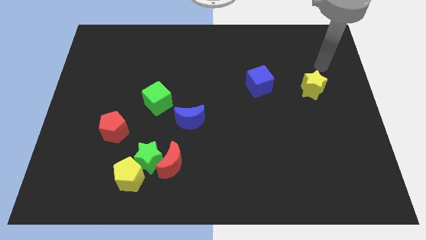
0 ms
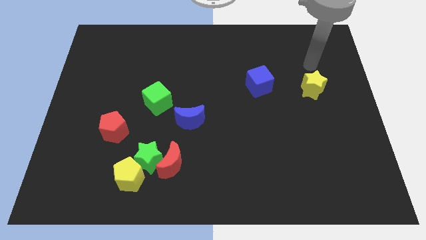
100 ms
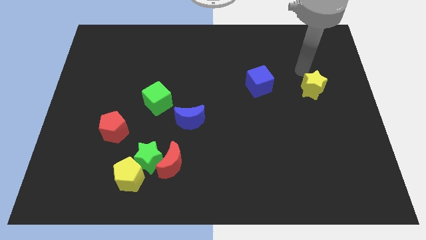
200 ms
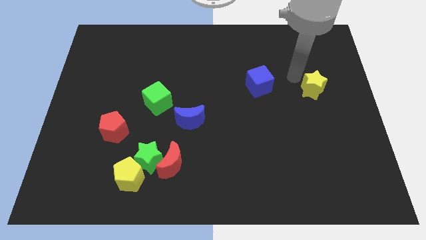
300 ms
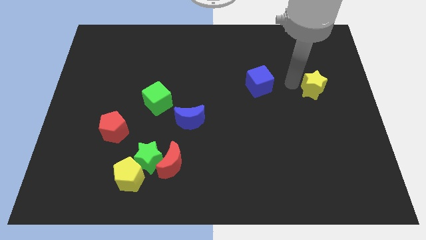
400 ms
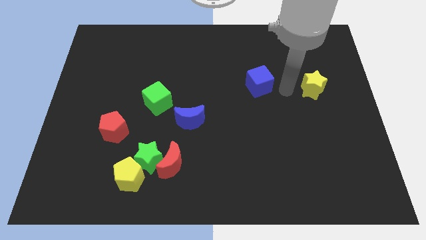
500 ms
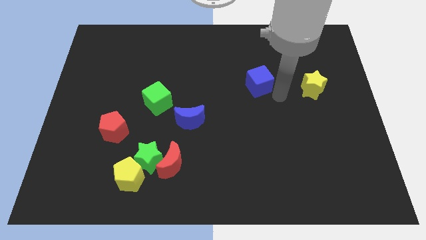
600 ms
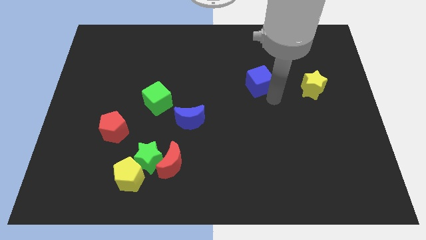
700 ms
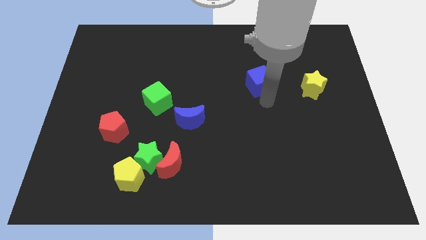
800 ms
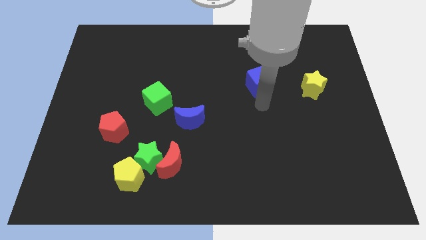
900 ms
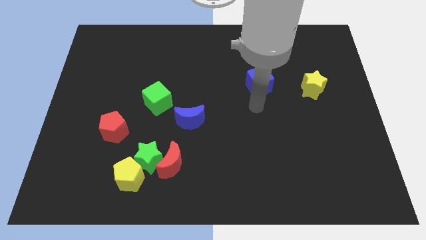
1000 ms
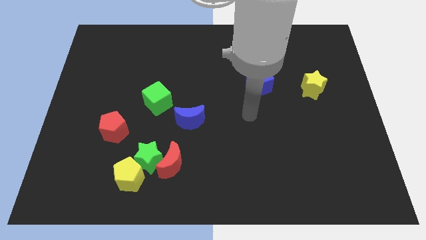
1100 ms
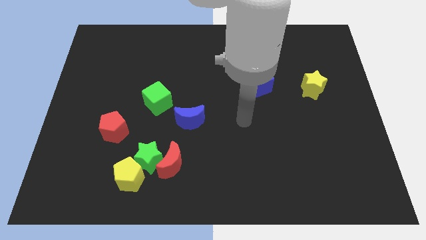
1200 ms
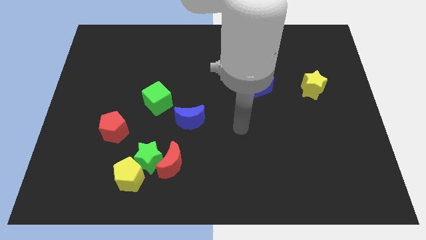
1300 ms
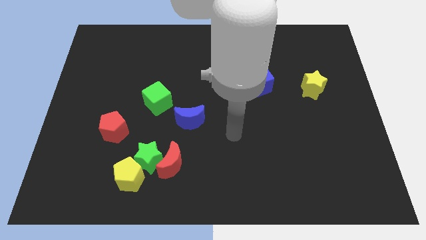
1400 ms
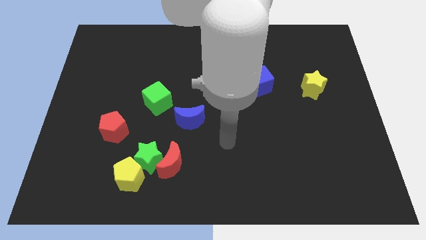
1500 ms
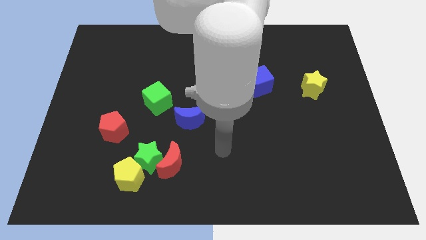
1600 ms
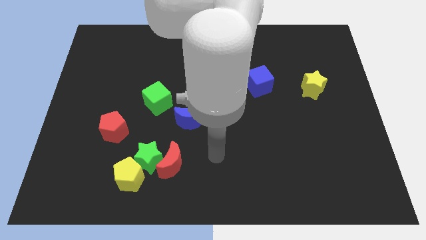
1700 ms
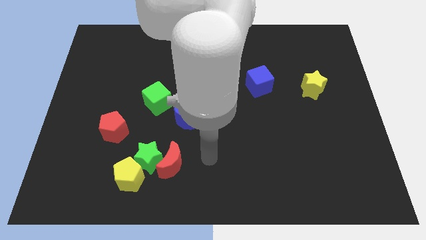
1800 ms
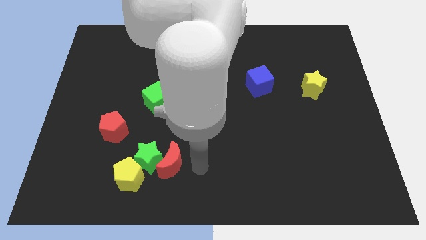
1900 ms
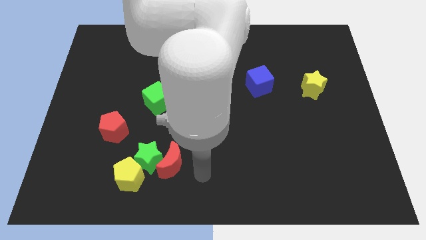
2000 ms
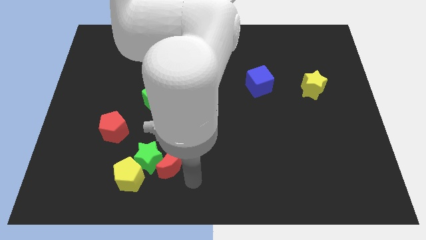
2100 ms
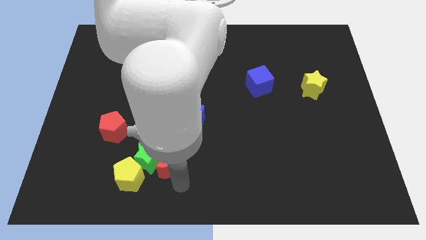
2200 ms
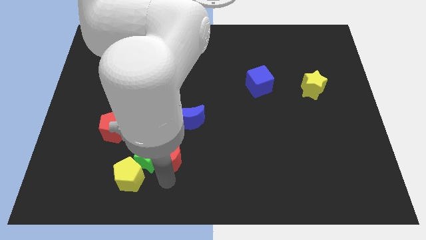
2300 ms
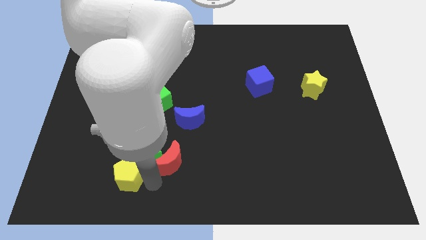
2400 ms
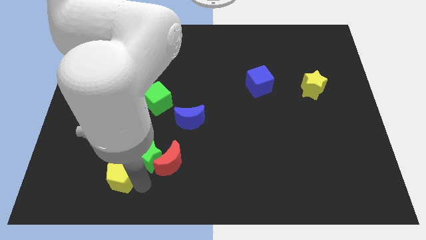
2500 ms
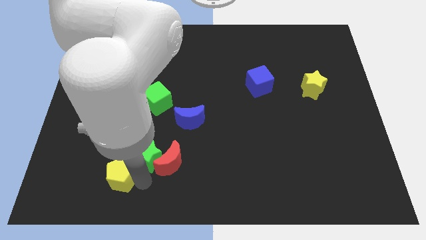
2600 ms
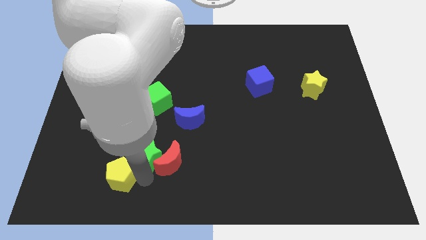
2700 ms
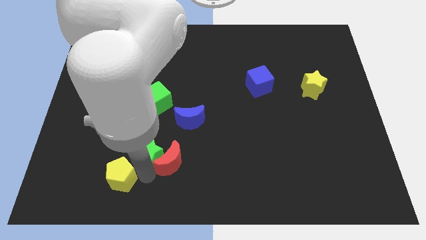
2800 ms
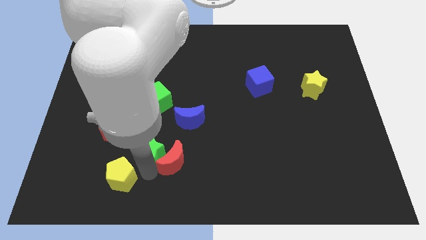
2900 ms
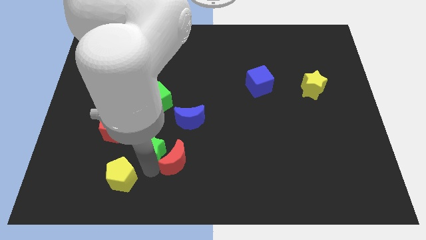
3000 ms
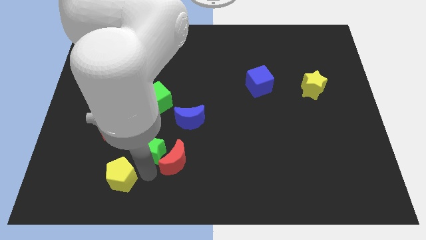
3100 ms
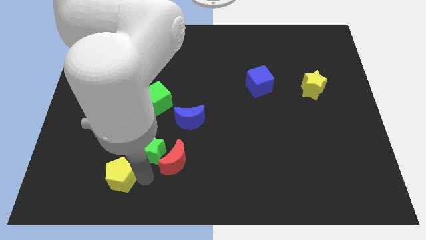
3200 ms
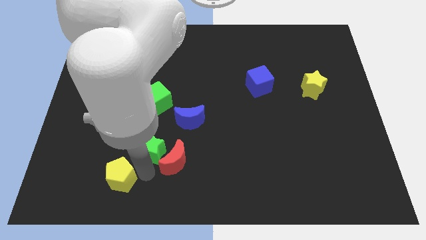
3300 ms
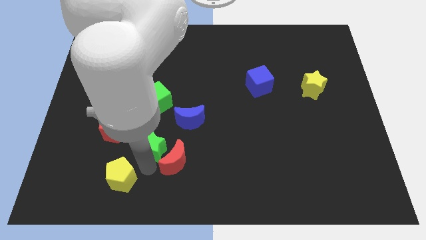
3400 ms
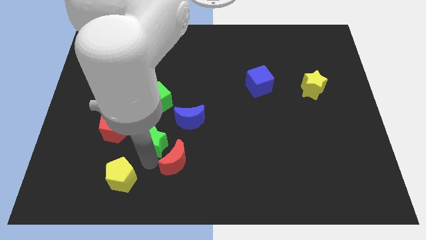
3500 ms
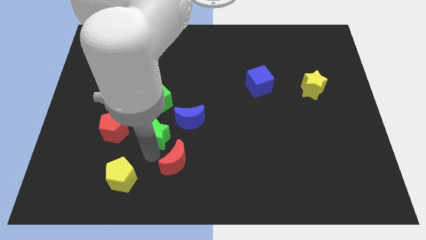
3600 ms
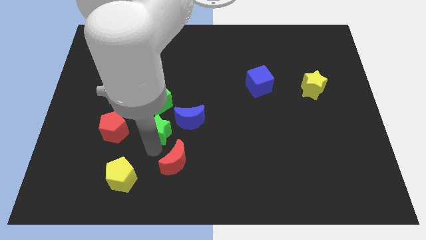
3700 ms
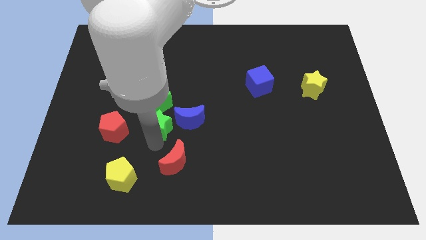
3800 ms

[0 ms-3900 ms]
move the green star away from the red moon and yellow pentagon

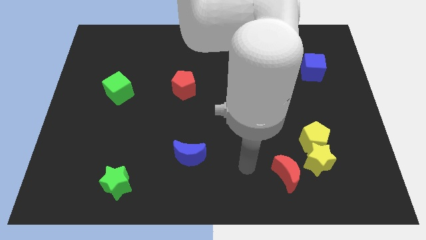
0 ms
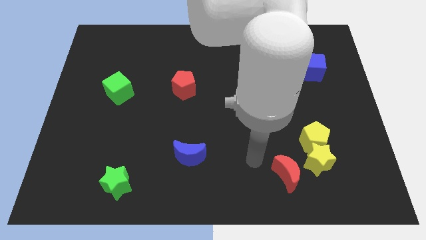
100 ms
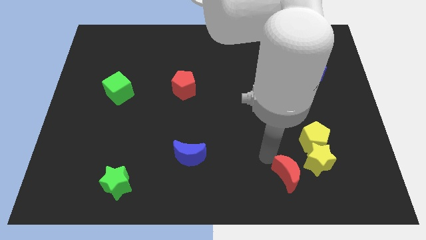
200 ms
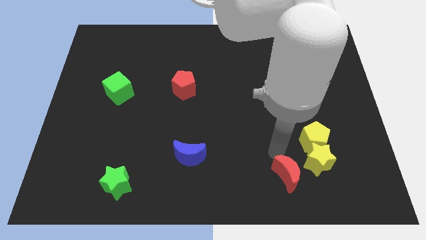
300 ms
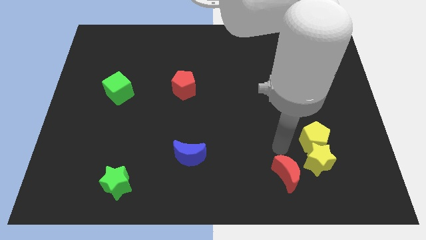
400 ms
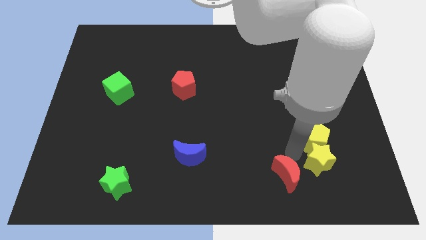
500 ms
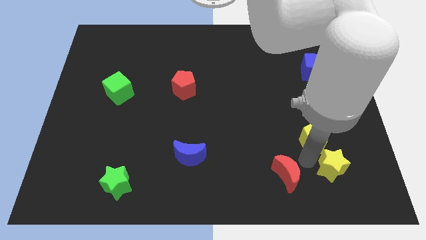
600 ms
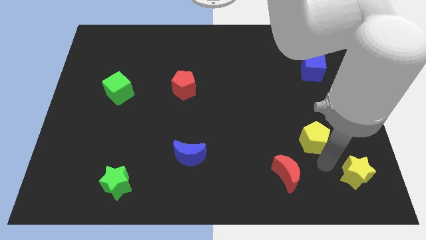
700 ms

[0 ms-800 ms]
move the yellow pentagon away from the yellow star

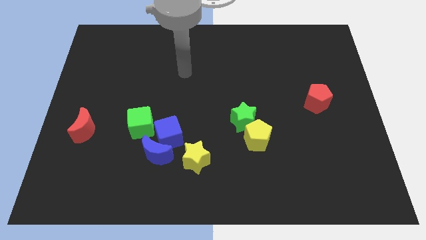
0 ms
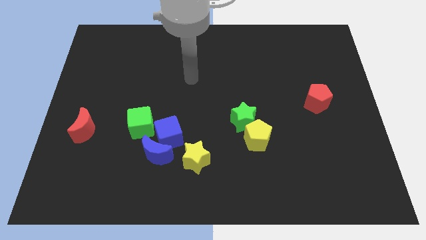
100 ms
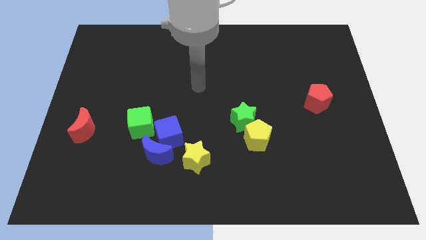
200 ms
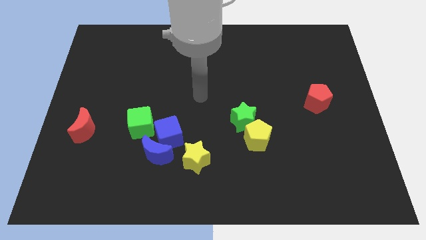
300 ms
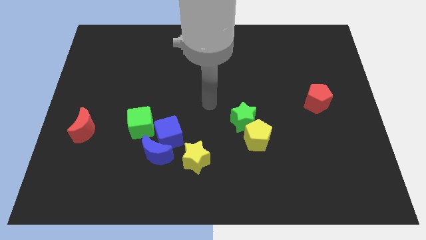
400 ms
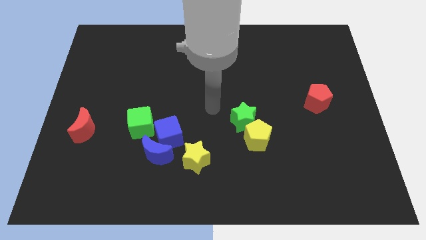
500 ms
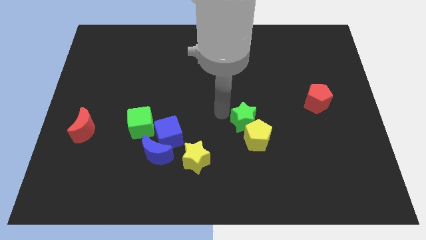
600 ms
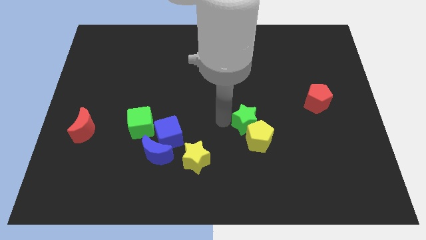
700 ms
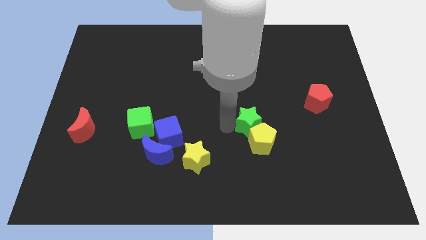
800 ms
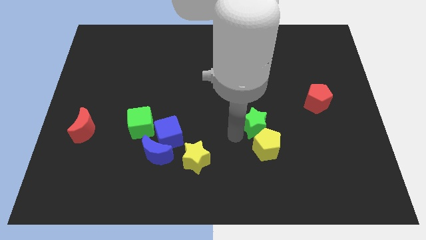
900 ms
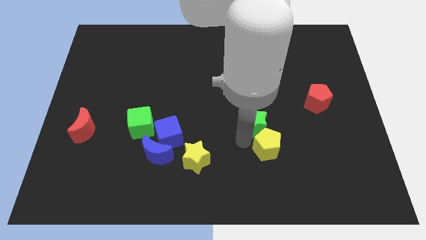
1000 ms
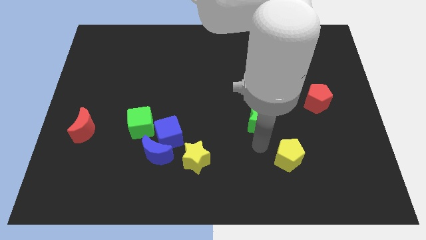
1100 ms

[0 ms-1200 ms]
move the green star away from the yellow pentagon

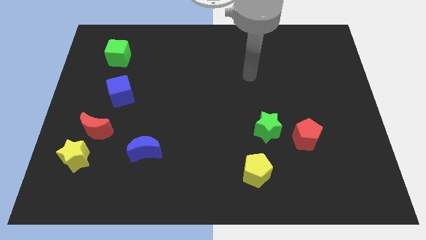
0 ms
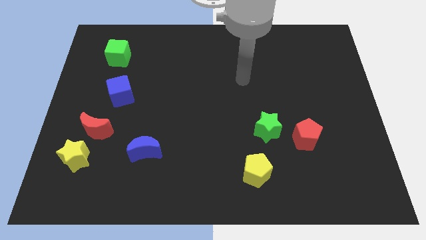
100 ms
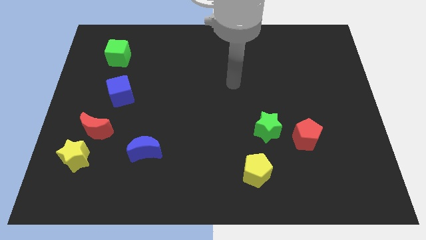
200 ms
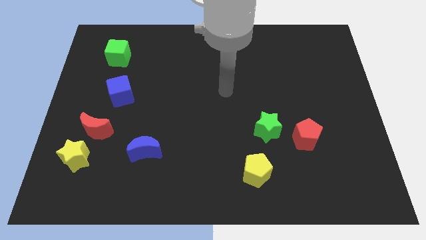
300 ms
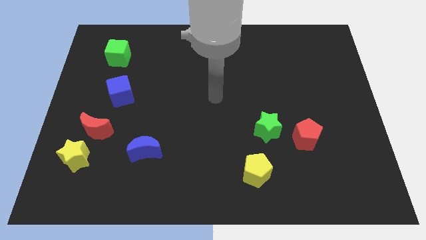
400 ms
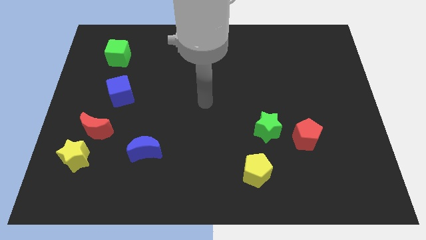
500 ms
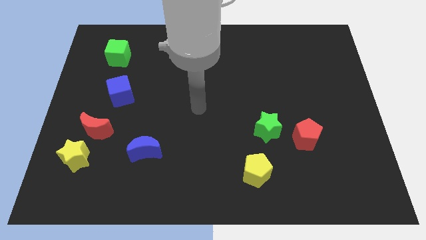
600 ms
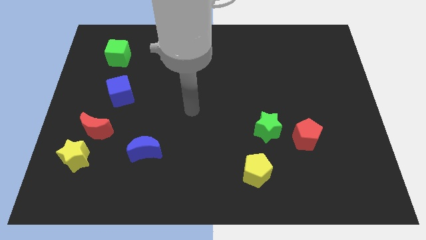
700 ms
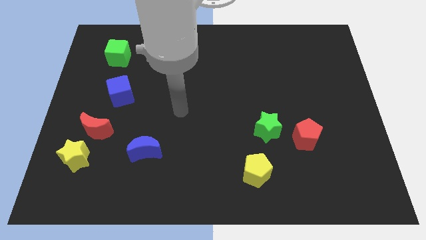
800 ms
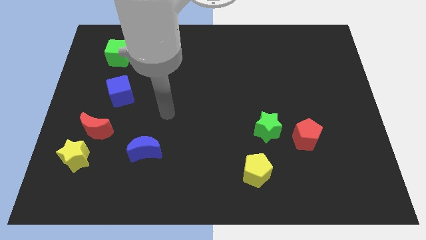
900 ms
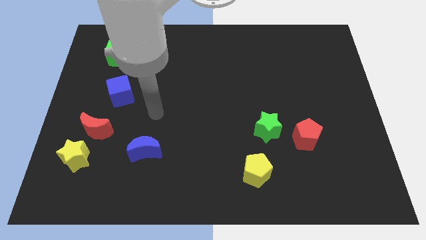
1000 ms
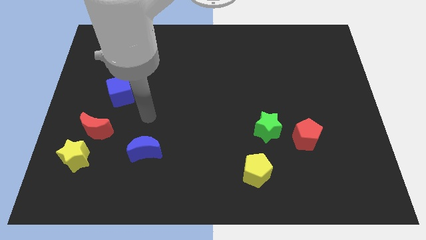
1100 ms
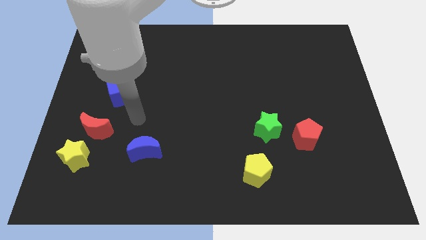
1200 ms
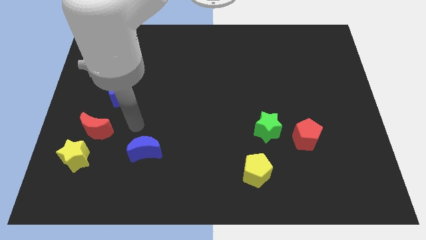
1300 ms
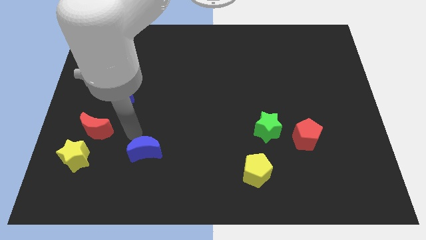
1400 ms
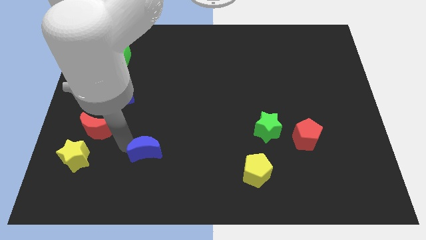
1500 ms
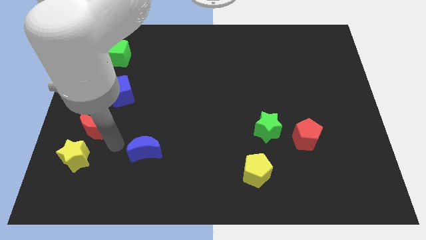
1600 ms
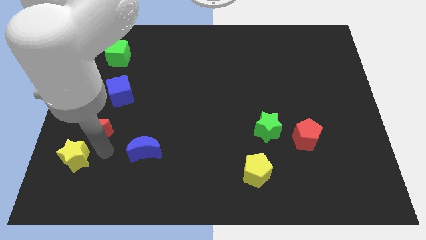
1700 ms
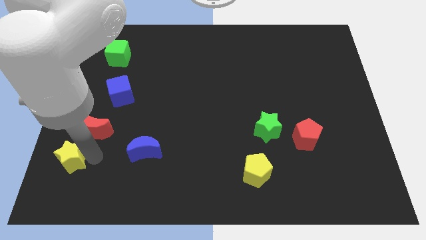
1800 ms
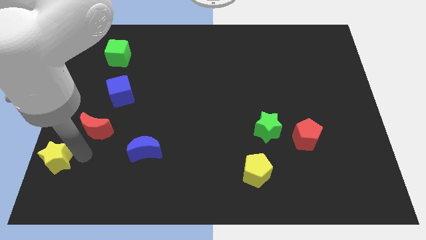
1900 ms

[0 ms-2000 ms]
pull the red moon apart from the yellow star

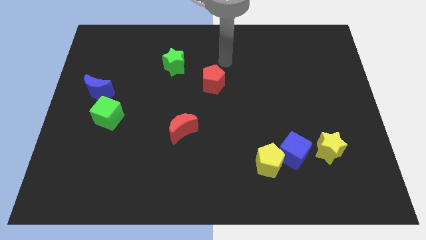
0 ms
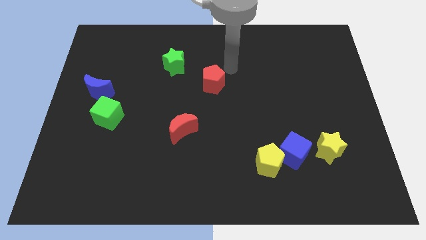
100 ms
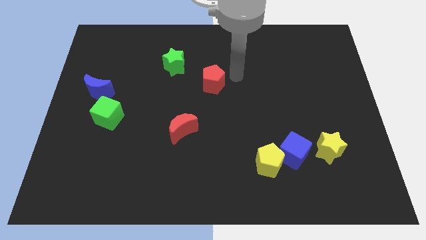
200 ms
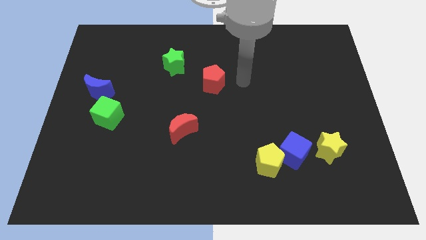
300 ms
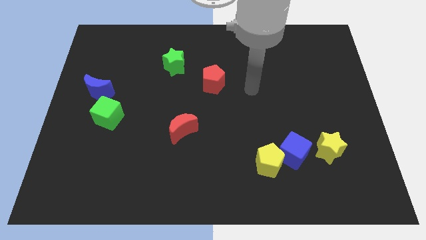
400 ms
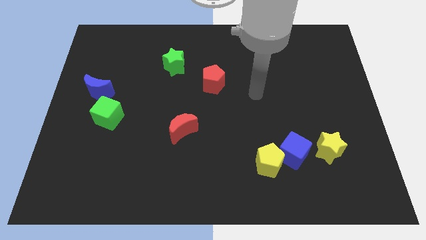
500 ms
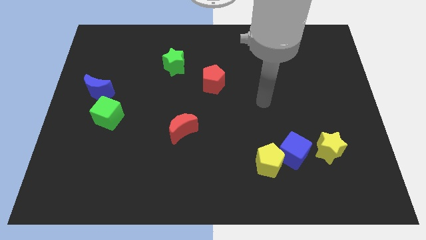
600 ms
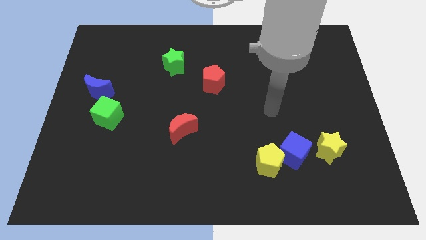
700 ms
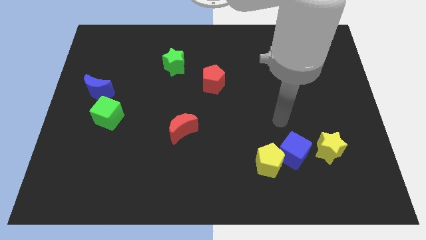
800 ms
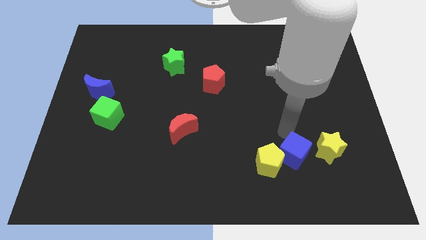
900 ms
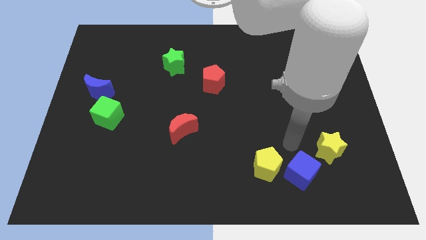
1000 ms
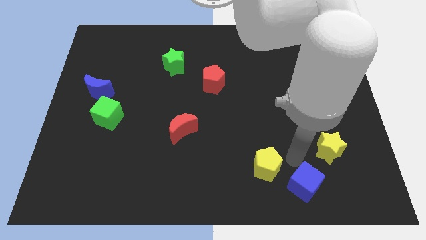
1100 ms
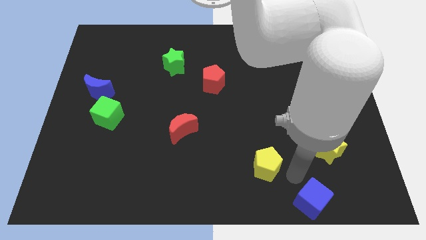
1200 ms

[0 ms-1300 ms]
move the yellow pentagon away from the blue cube

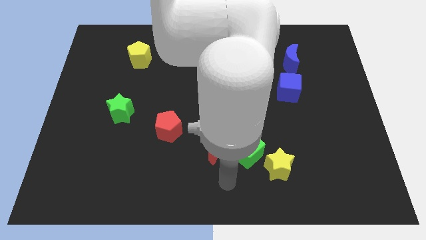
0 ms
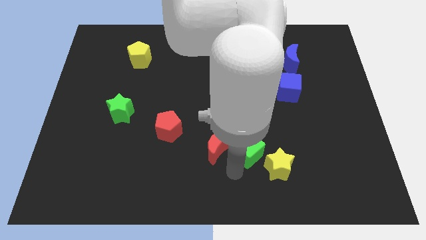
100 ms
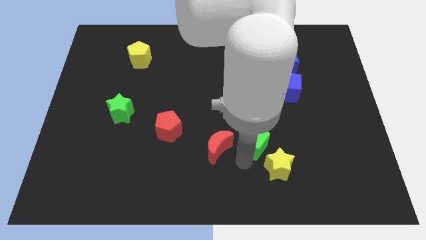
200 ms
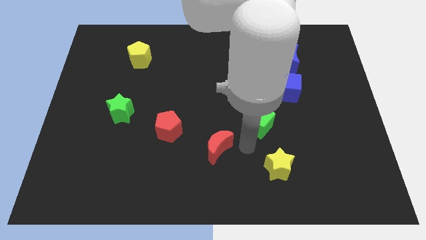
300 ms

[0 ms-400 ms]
pull the red moon apart from the green cube
